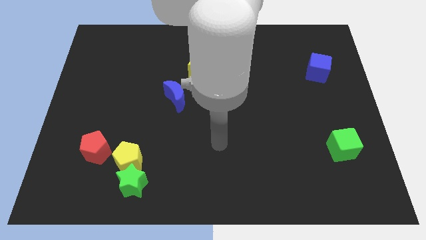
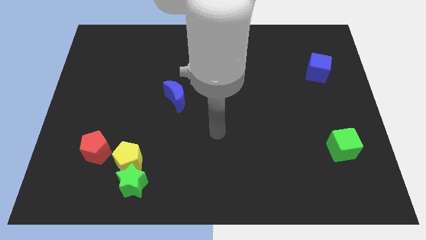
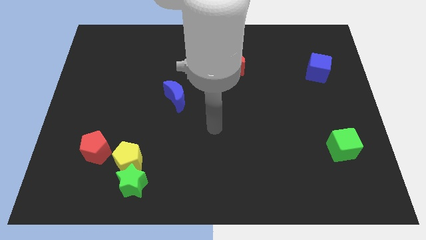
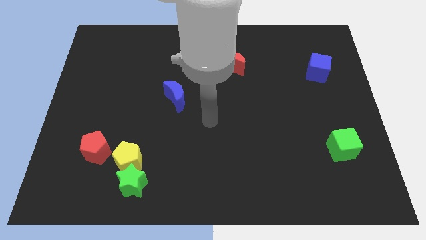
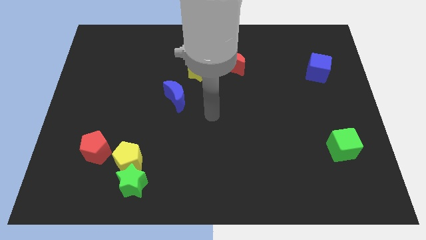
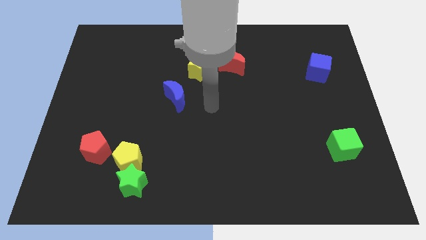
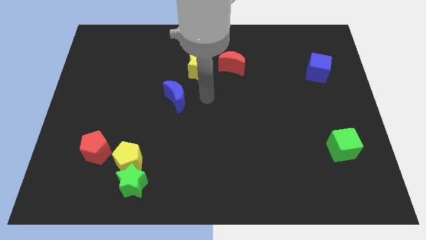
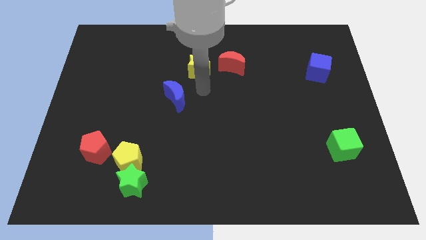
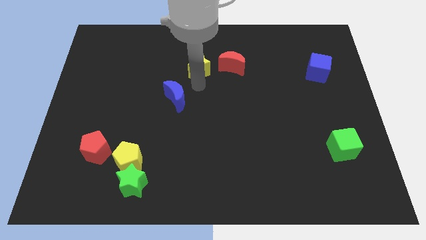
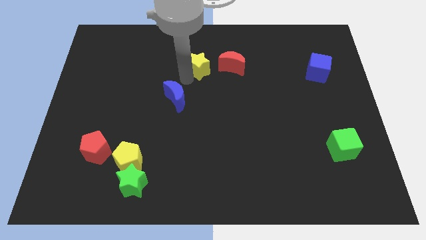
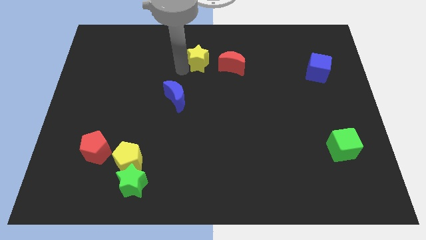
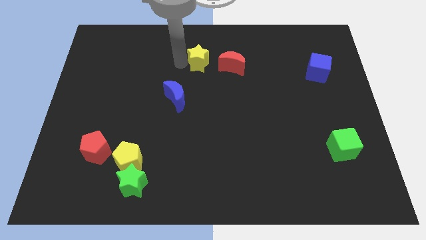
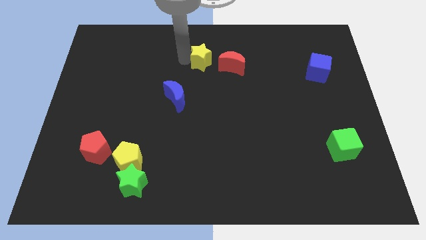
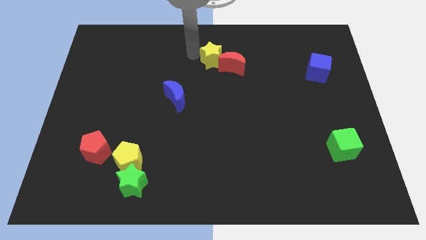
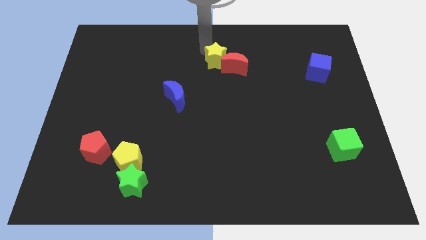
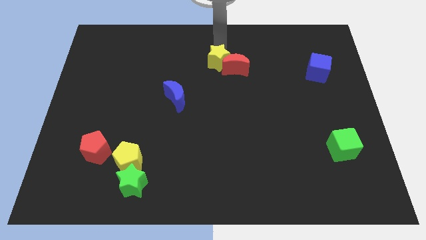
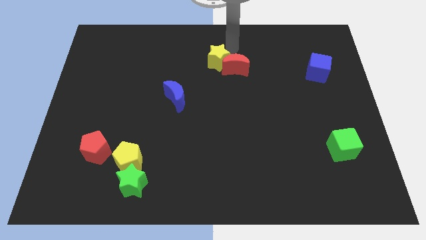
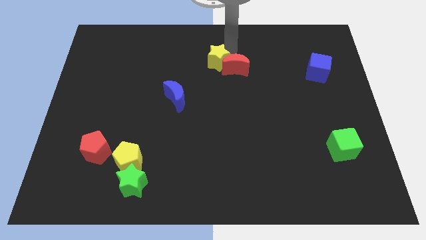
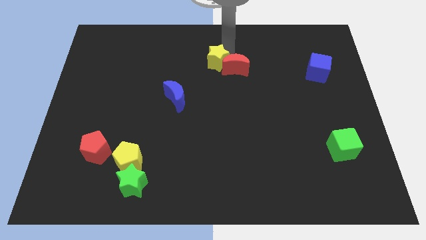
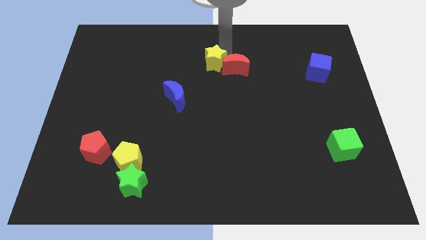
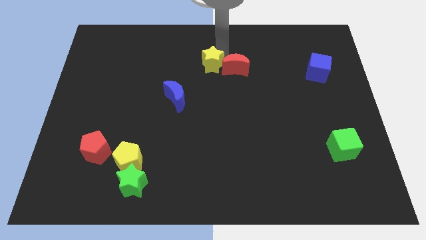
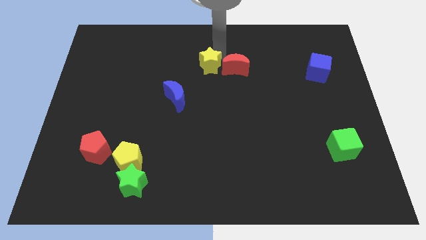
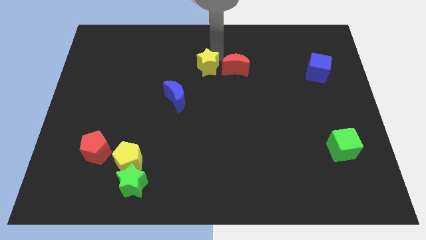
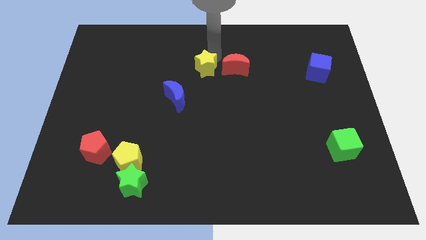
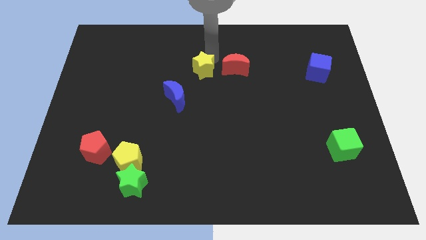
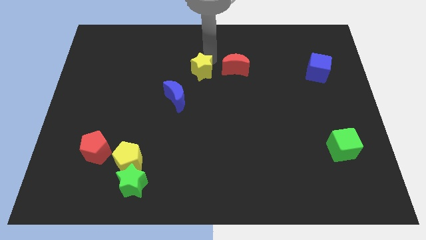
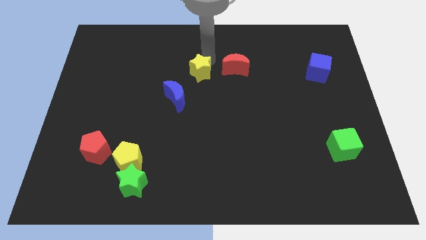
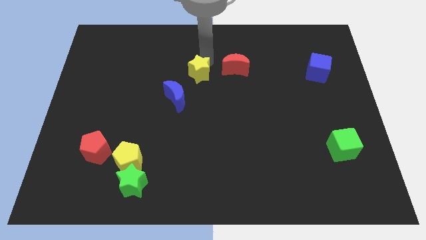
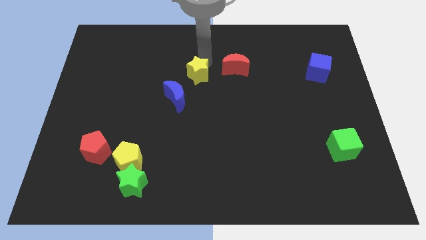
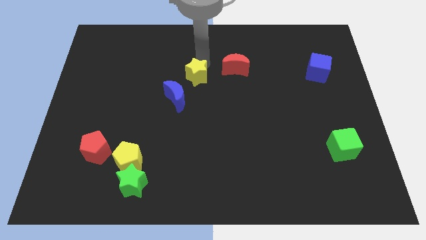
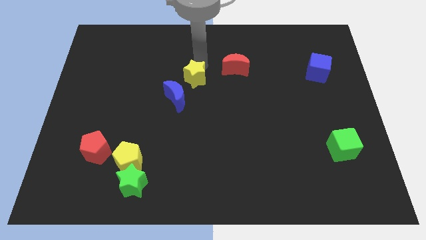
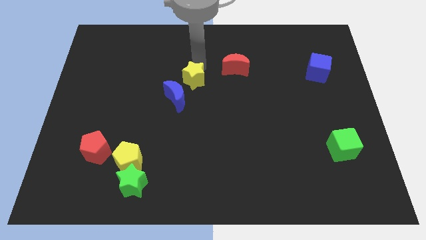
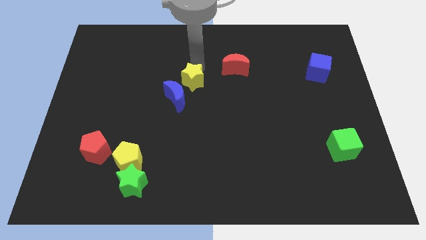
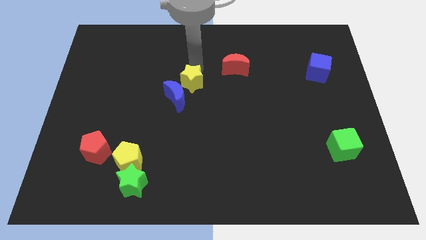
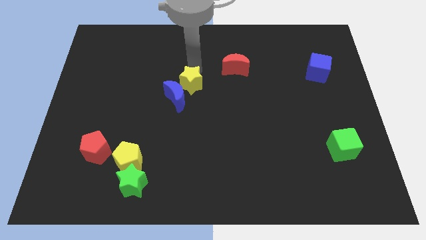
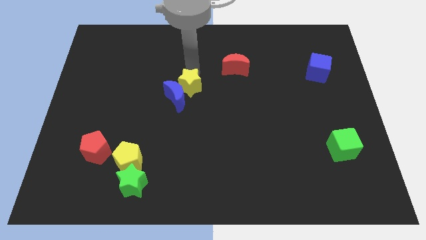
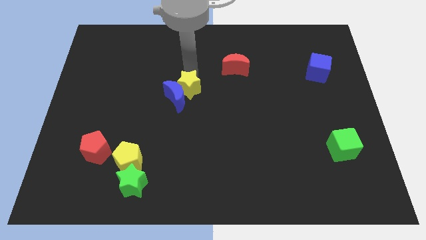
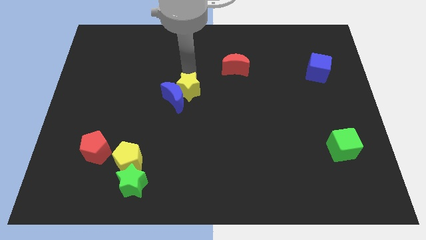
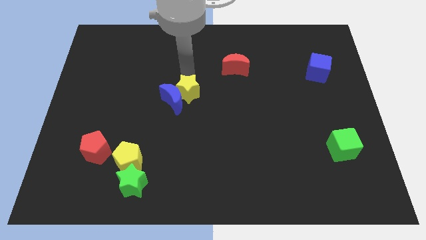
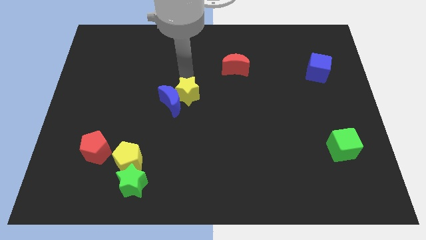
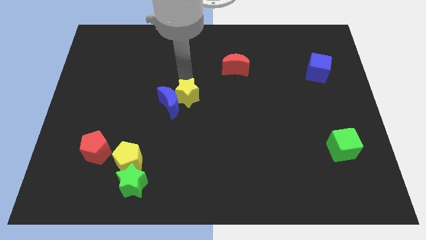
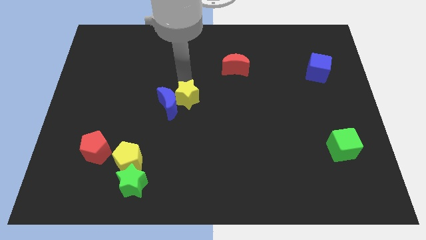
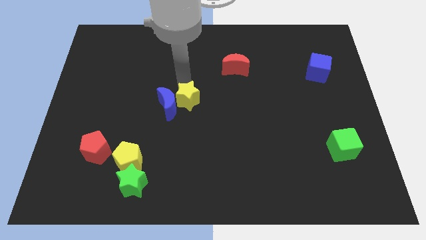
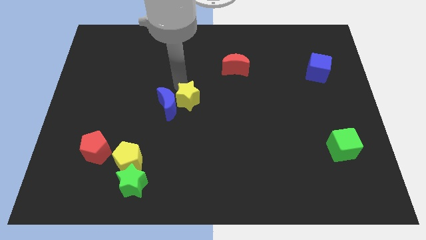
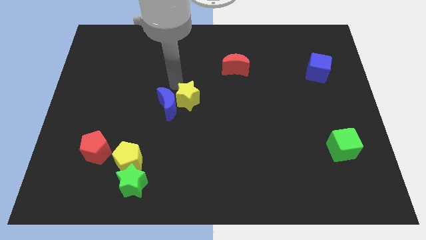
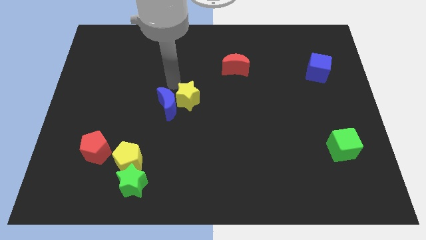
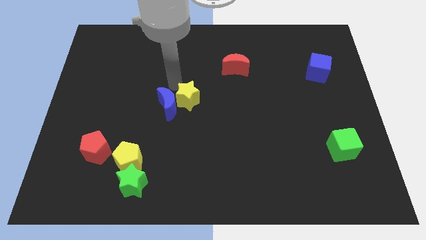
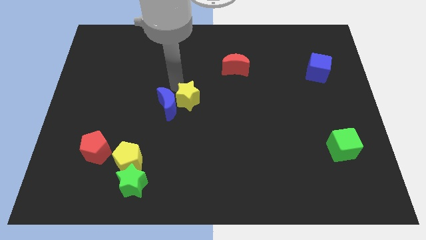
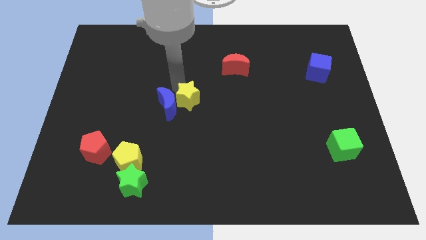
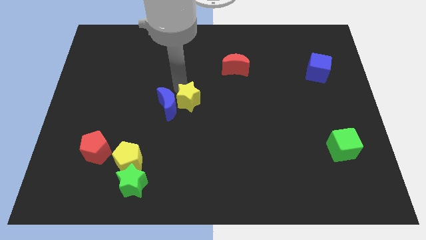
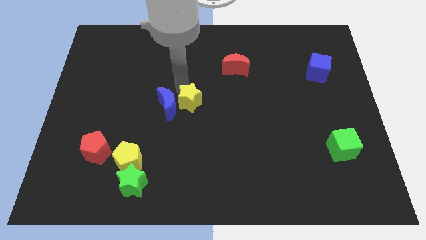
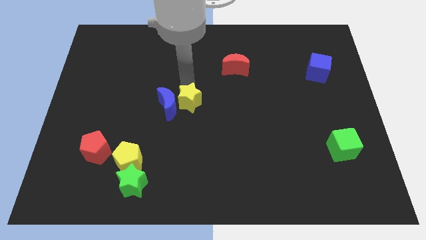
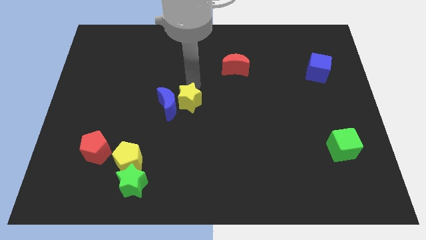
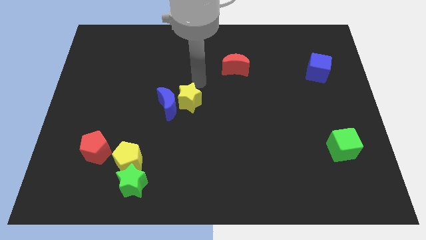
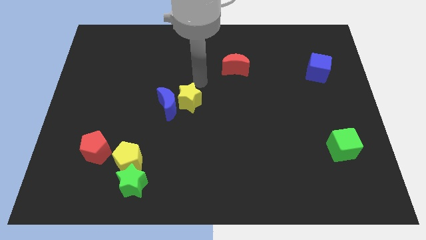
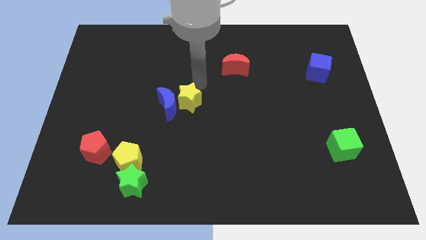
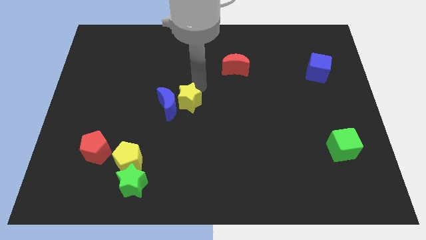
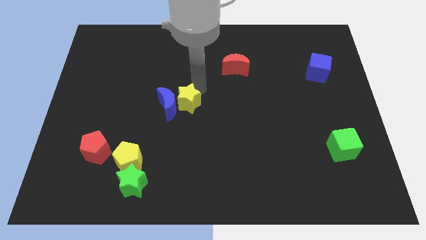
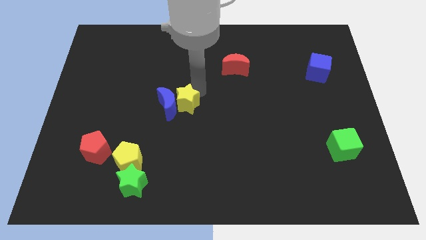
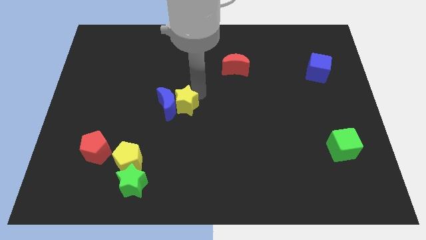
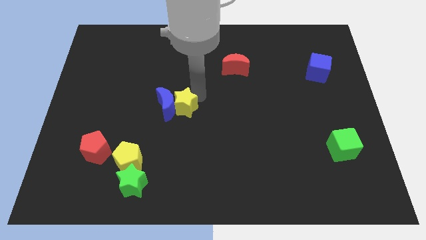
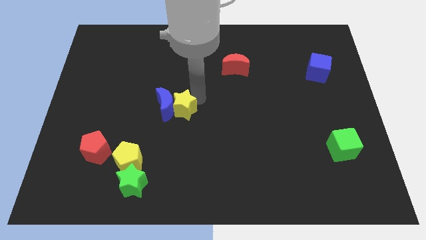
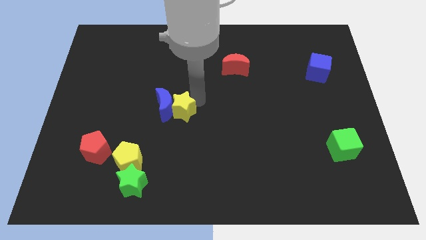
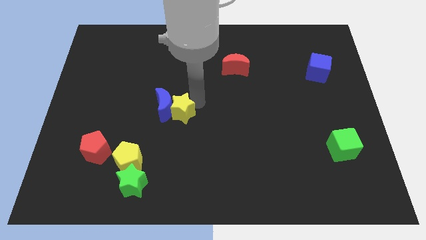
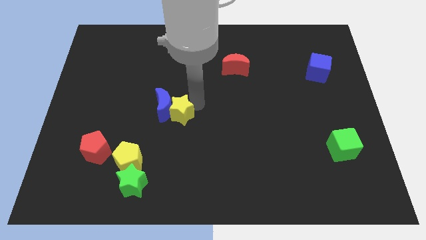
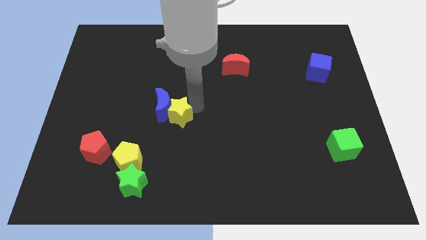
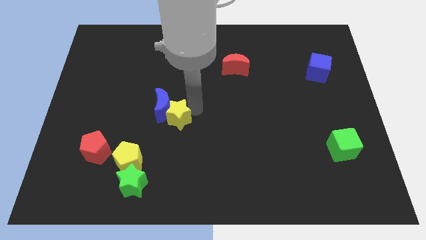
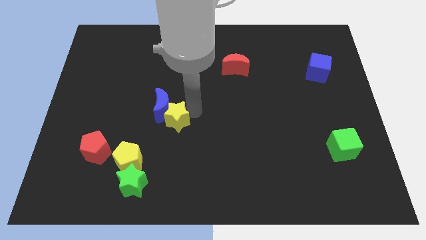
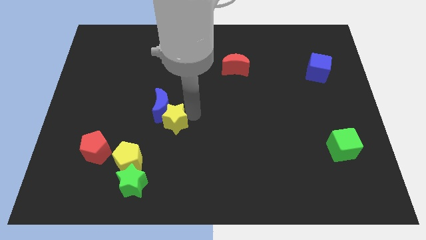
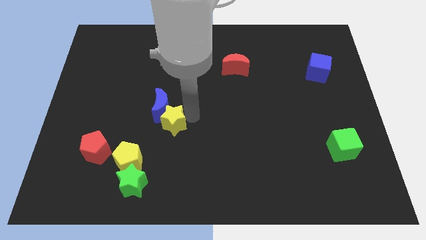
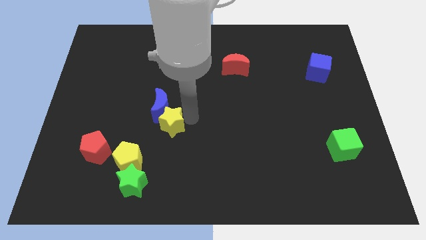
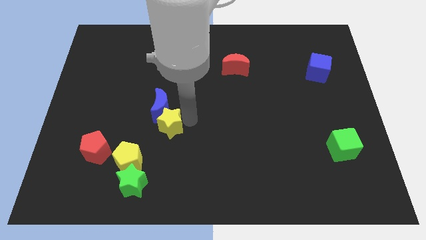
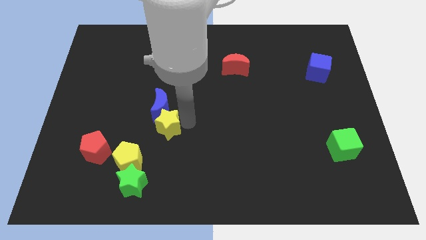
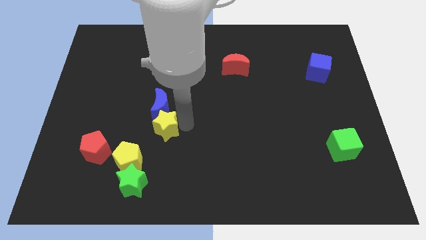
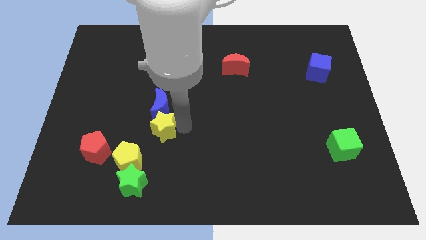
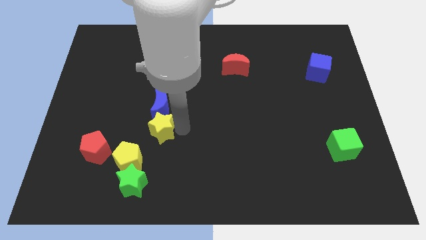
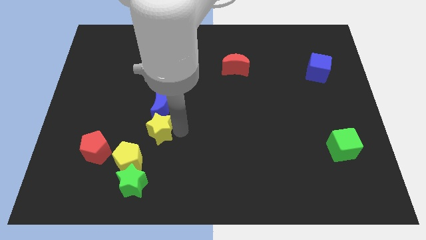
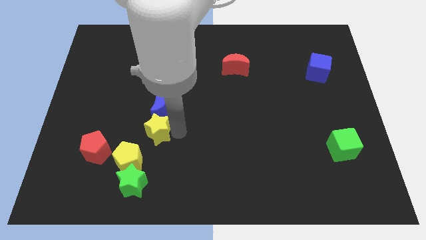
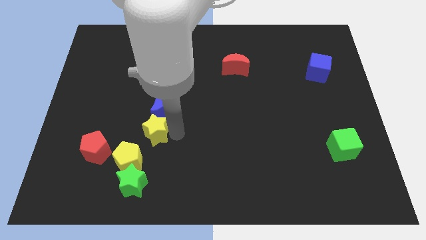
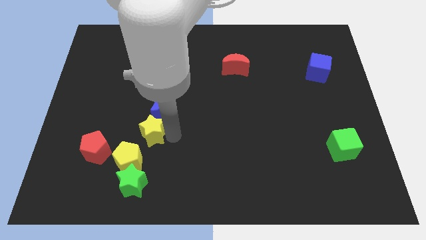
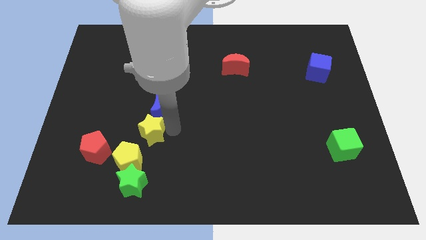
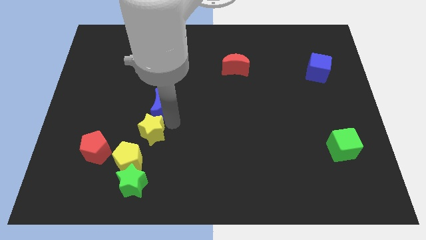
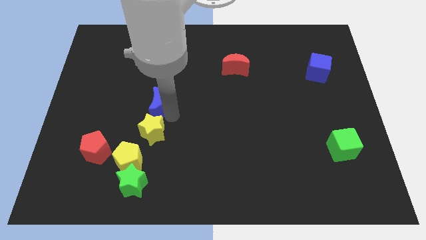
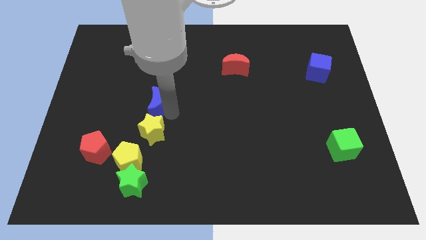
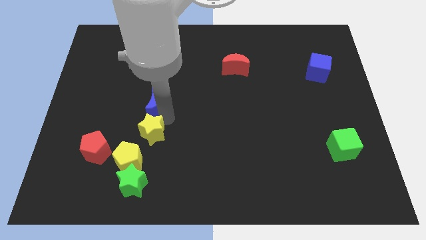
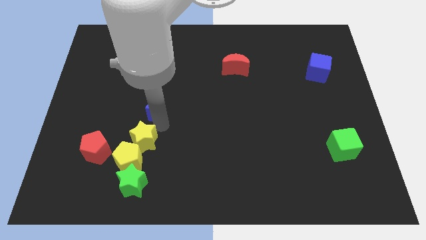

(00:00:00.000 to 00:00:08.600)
push the yellow star close to the yellow pentagon
